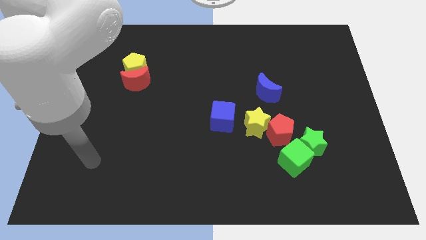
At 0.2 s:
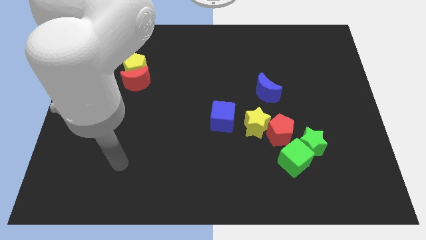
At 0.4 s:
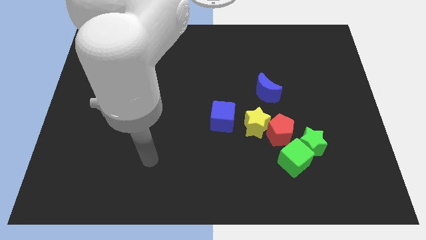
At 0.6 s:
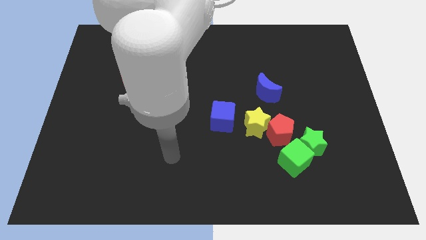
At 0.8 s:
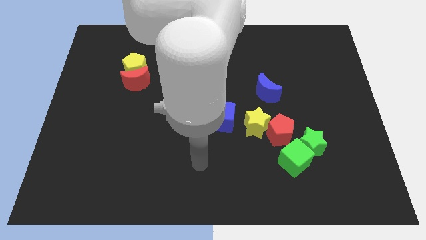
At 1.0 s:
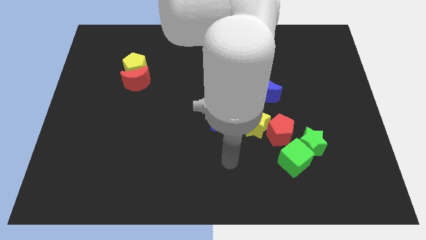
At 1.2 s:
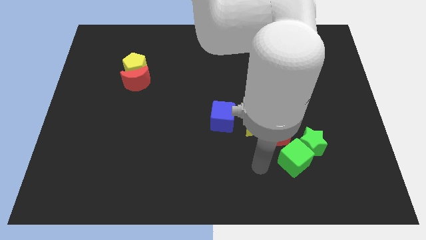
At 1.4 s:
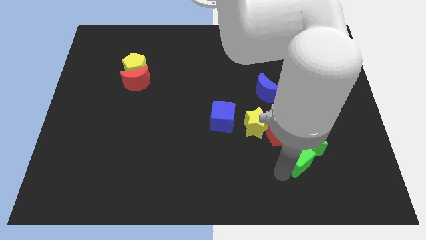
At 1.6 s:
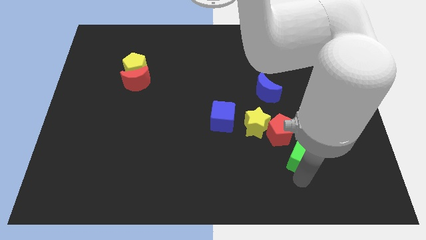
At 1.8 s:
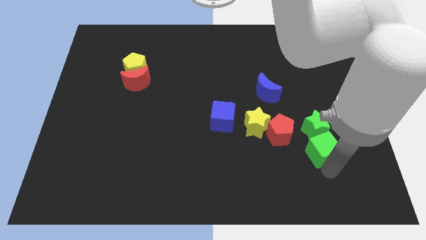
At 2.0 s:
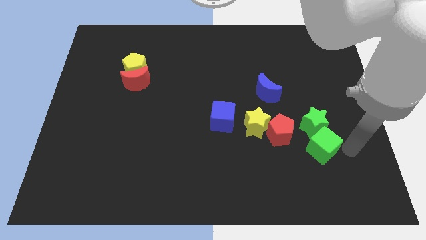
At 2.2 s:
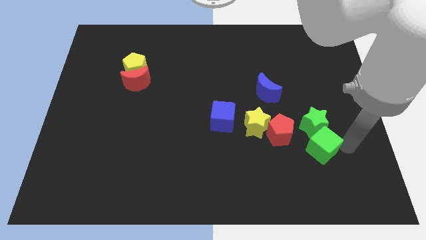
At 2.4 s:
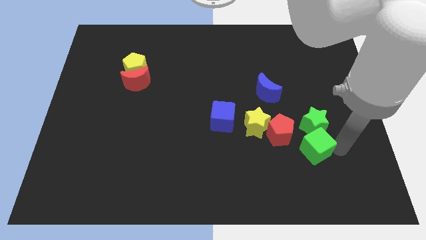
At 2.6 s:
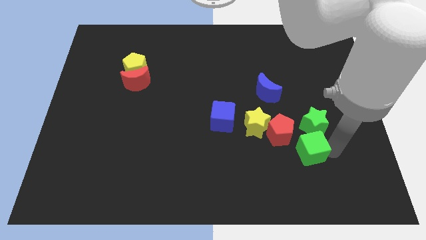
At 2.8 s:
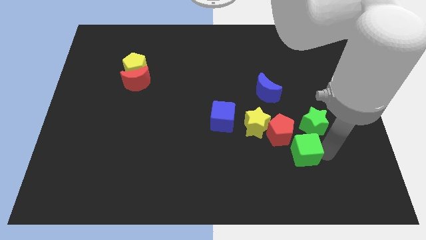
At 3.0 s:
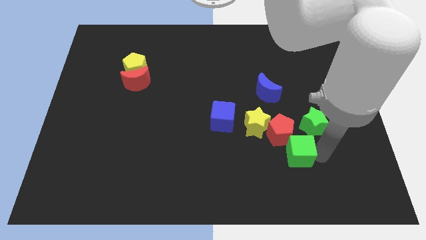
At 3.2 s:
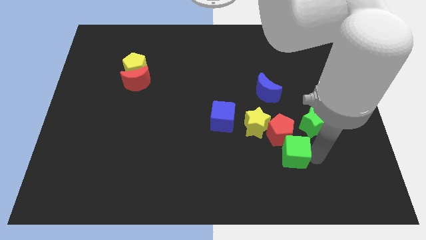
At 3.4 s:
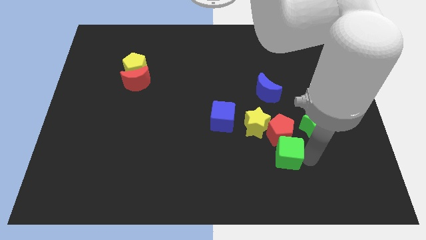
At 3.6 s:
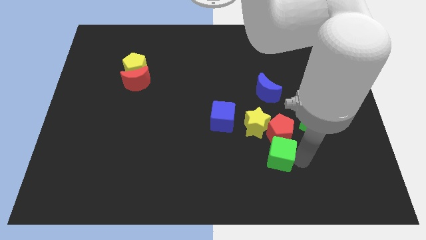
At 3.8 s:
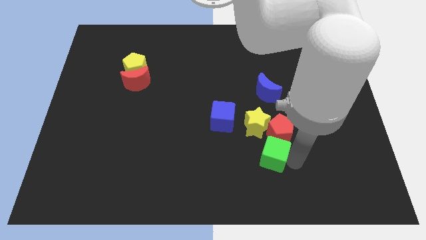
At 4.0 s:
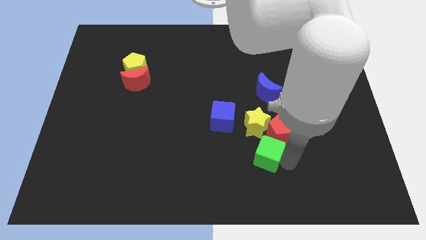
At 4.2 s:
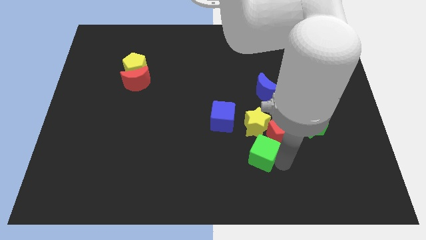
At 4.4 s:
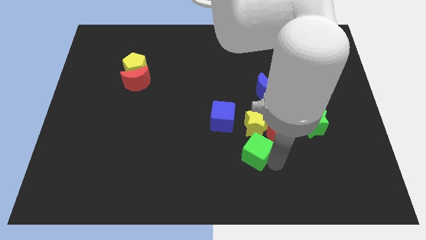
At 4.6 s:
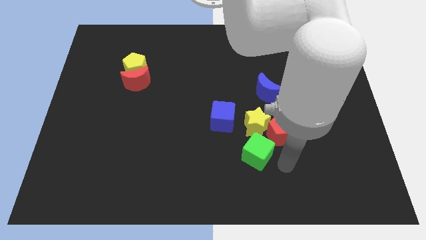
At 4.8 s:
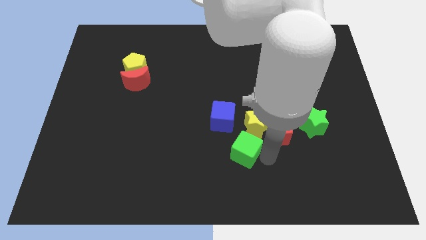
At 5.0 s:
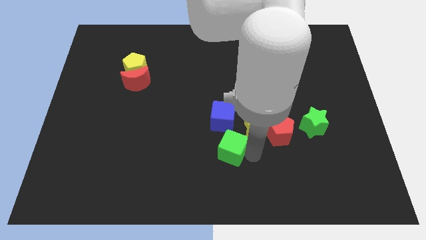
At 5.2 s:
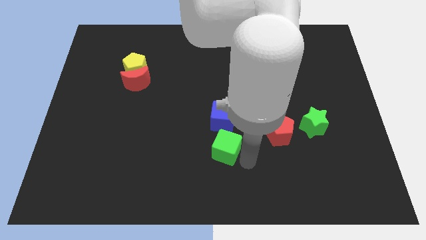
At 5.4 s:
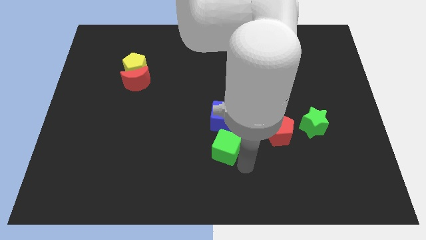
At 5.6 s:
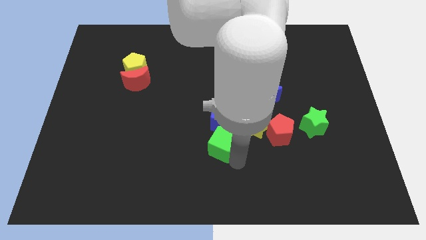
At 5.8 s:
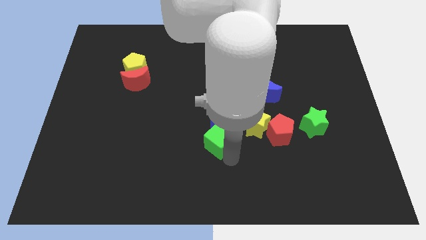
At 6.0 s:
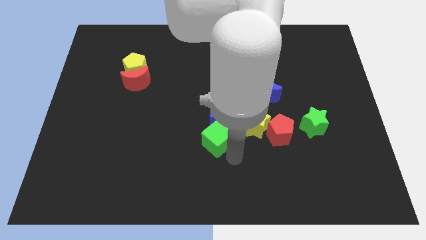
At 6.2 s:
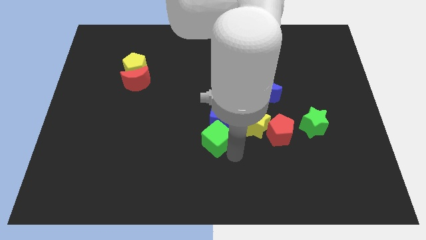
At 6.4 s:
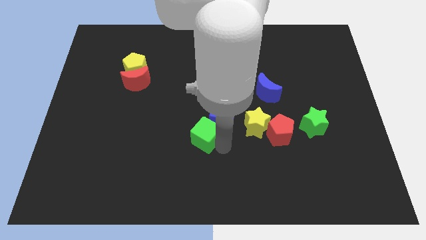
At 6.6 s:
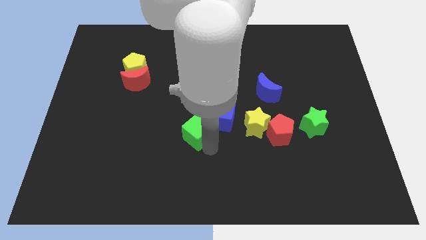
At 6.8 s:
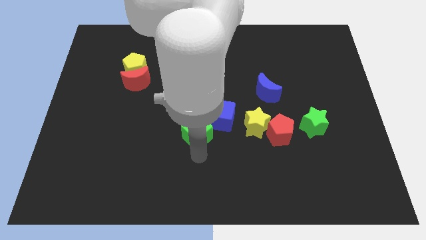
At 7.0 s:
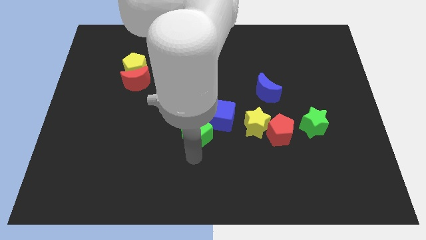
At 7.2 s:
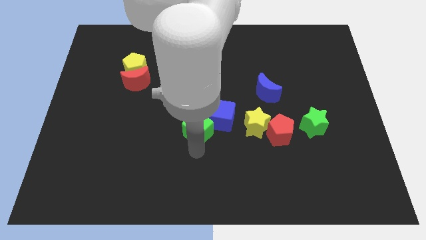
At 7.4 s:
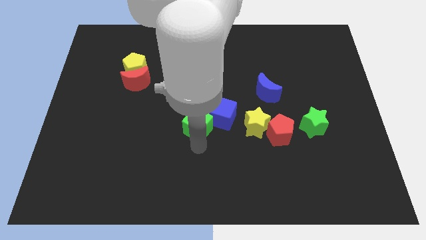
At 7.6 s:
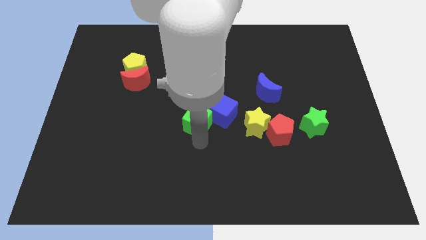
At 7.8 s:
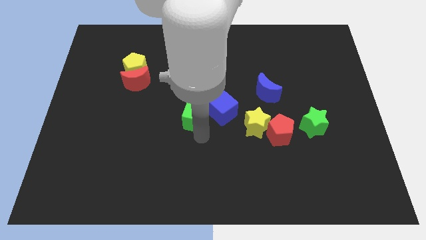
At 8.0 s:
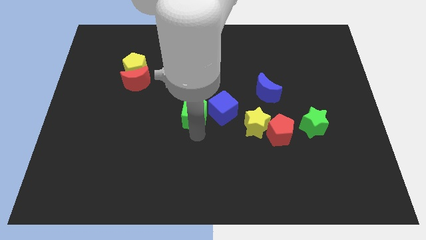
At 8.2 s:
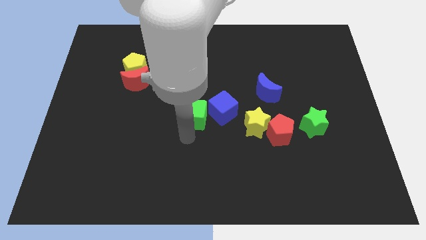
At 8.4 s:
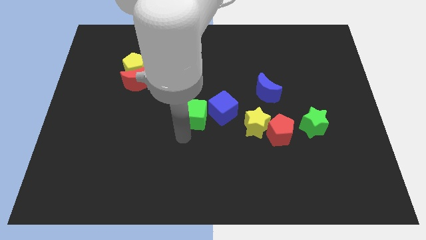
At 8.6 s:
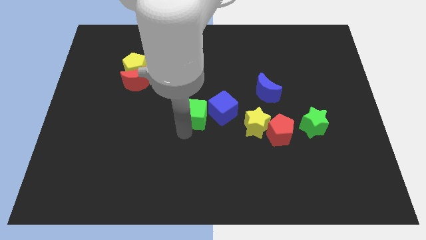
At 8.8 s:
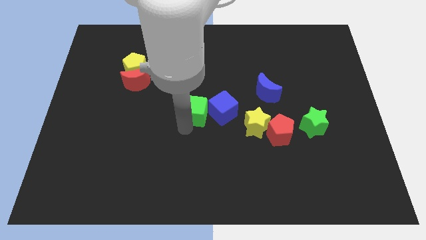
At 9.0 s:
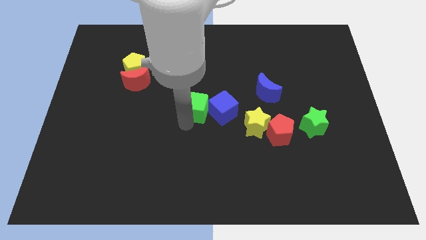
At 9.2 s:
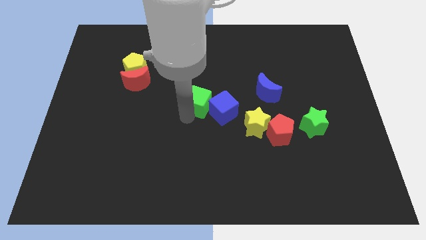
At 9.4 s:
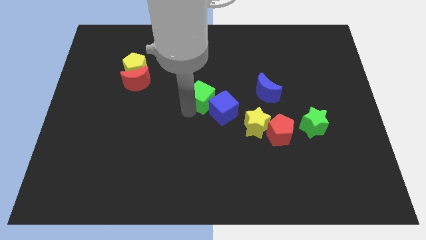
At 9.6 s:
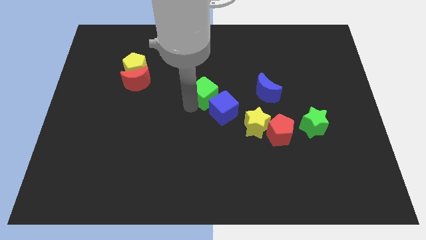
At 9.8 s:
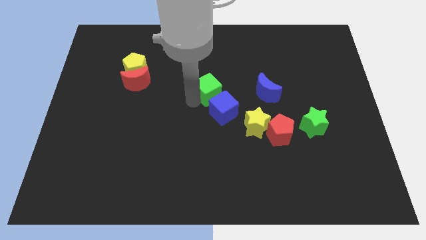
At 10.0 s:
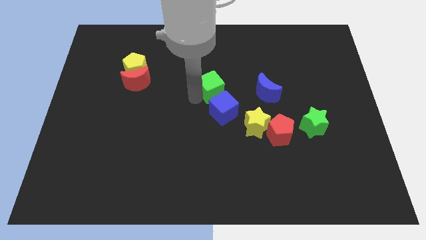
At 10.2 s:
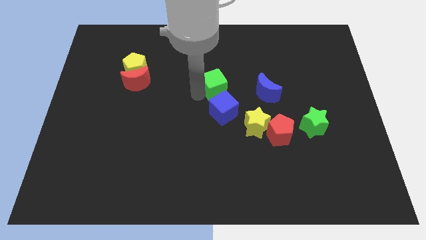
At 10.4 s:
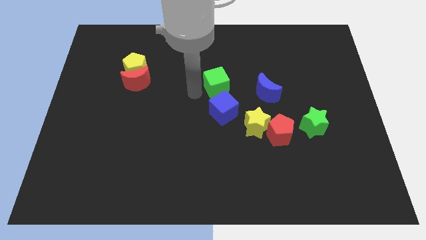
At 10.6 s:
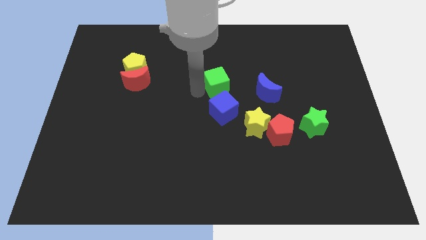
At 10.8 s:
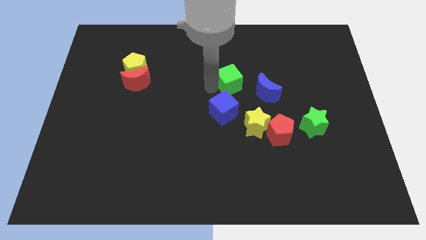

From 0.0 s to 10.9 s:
push the green cube diagonally up and to the left of the blue moon

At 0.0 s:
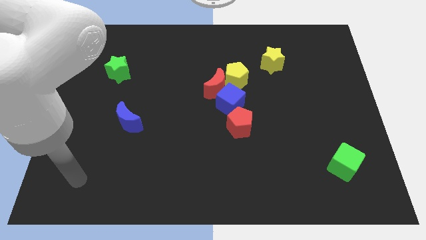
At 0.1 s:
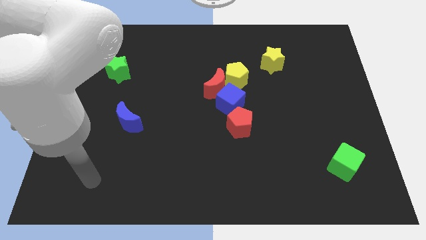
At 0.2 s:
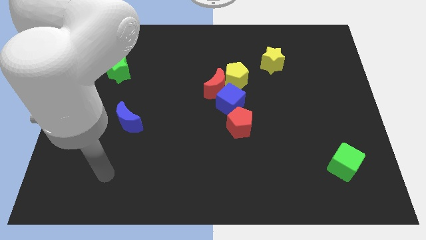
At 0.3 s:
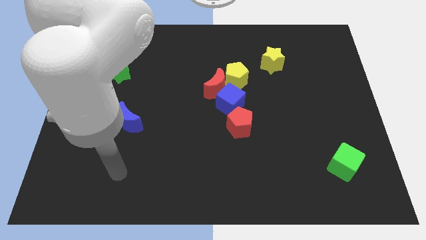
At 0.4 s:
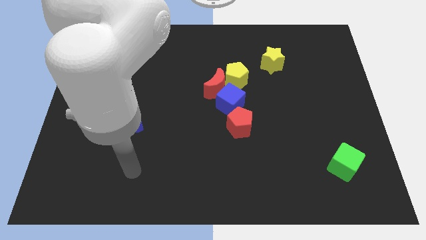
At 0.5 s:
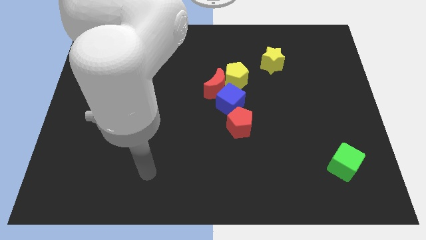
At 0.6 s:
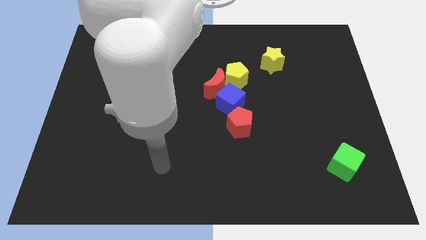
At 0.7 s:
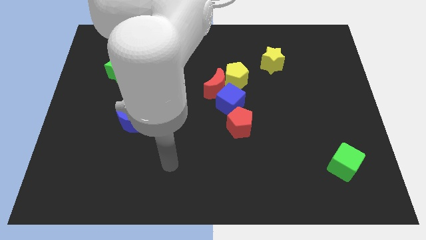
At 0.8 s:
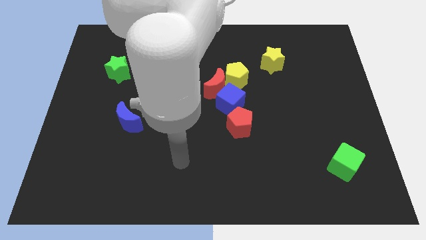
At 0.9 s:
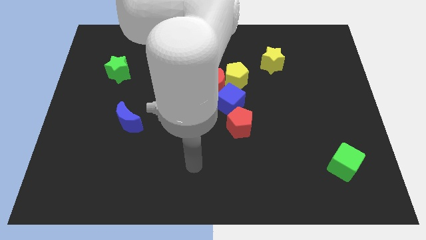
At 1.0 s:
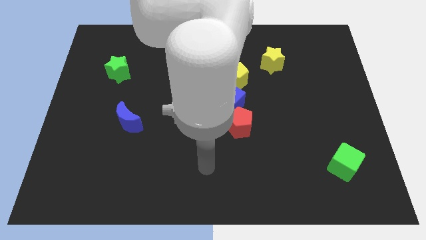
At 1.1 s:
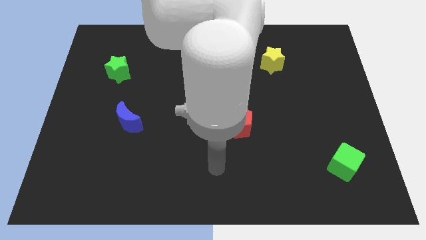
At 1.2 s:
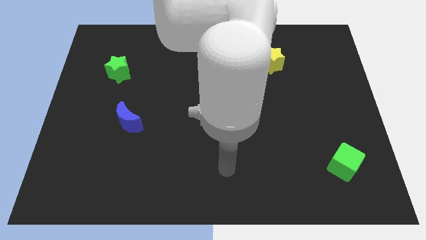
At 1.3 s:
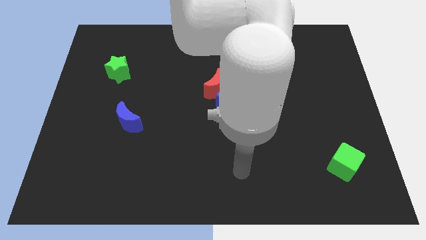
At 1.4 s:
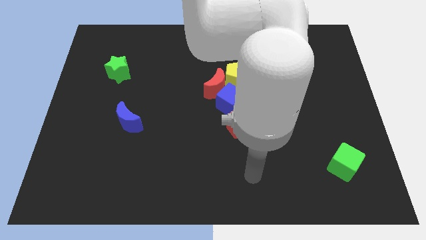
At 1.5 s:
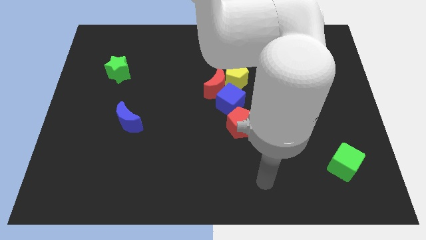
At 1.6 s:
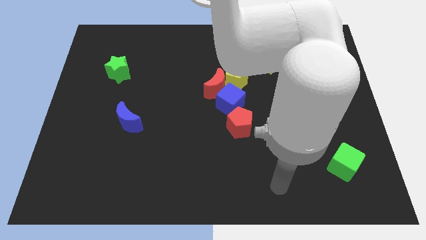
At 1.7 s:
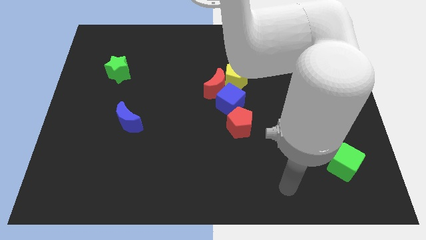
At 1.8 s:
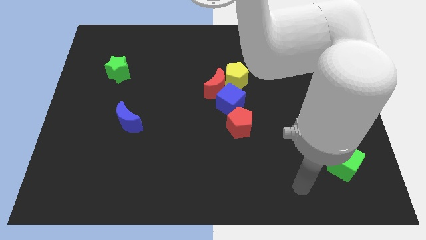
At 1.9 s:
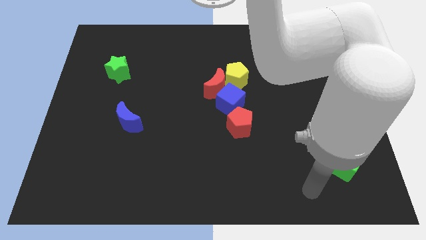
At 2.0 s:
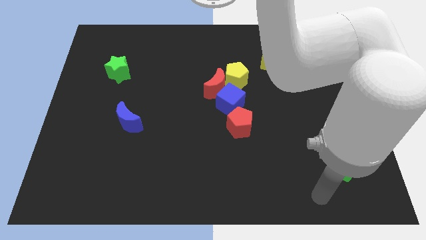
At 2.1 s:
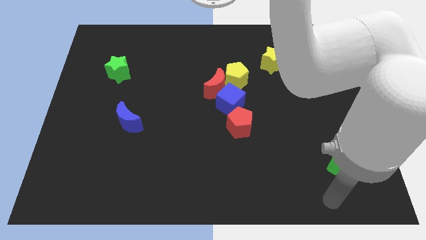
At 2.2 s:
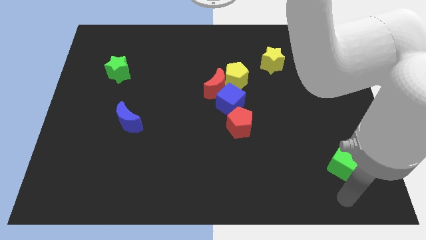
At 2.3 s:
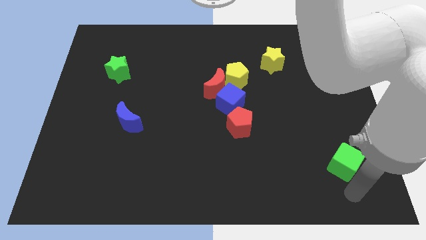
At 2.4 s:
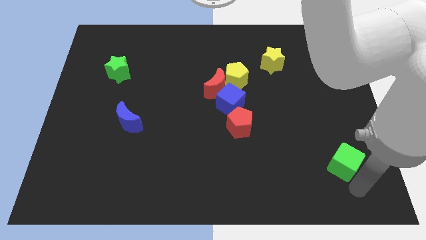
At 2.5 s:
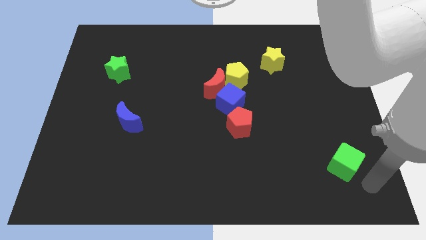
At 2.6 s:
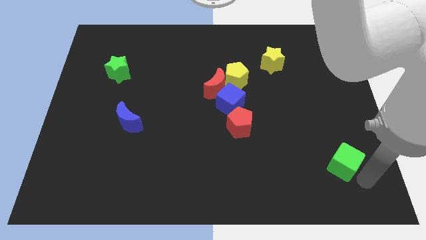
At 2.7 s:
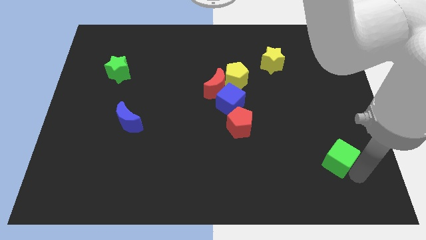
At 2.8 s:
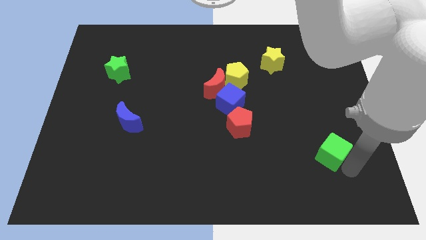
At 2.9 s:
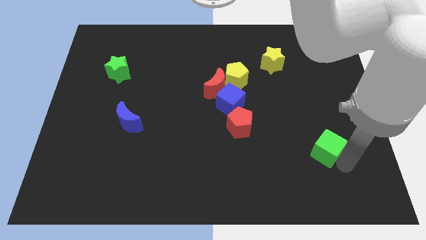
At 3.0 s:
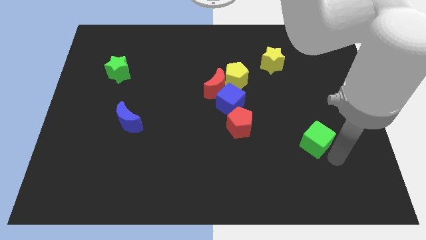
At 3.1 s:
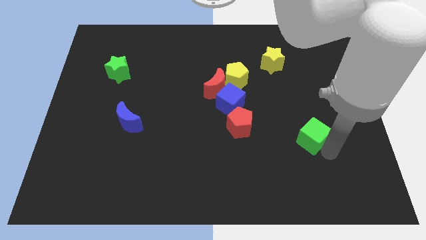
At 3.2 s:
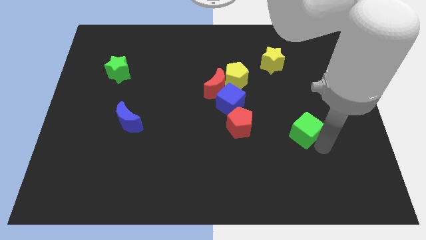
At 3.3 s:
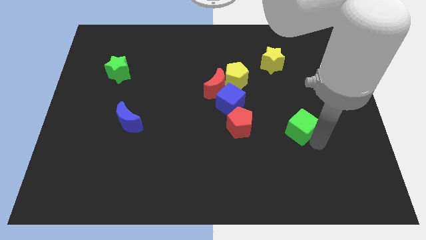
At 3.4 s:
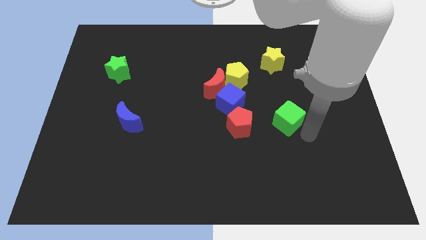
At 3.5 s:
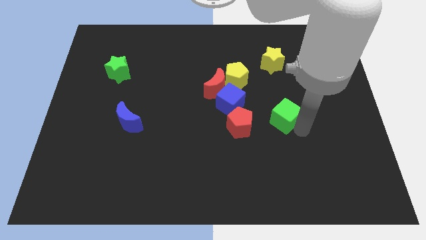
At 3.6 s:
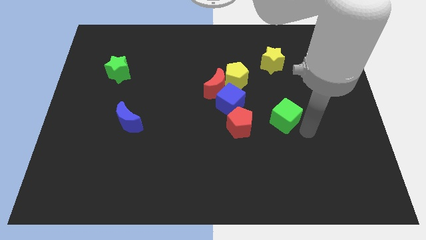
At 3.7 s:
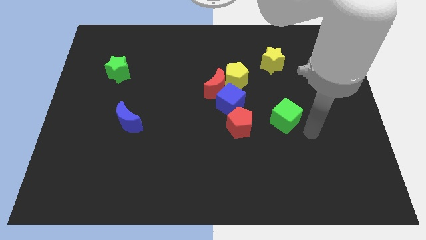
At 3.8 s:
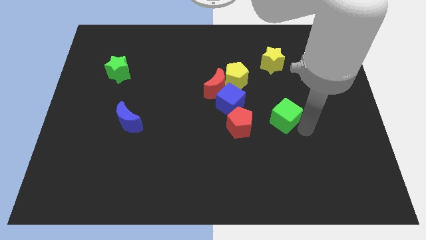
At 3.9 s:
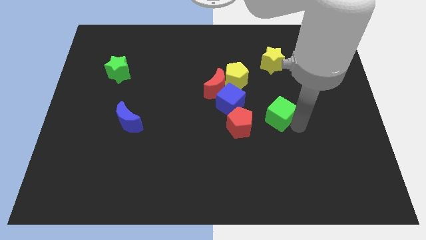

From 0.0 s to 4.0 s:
push the green cube diagonally up and to the right of the red pentagon
